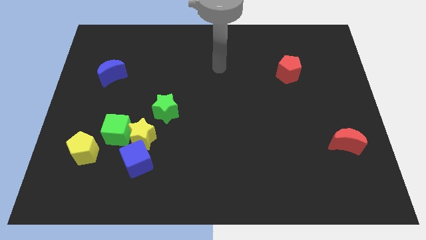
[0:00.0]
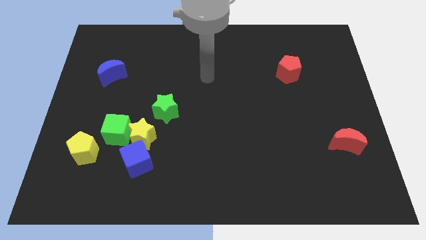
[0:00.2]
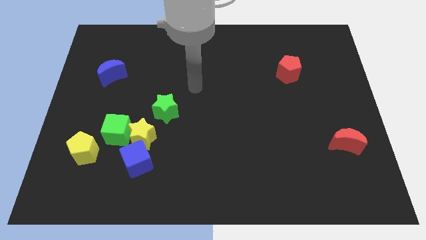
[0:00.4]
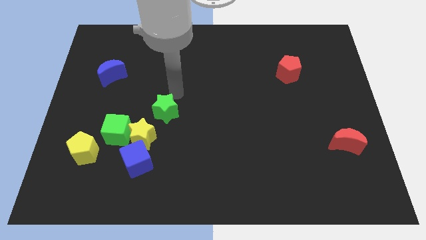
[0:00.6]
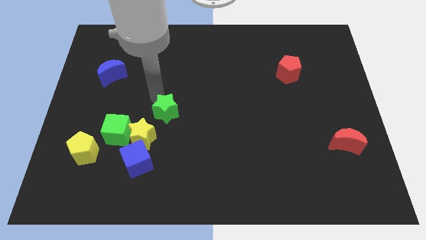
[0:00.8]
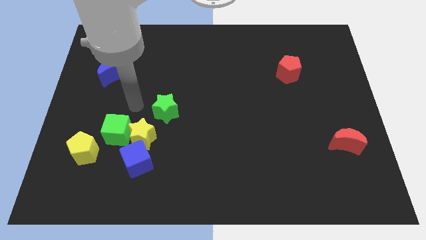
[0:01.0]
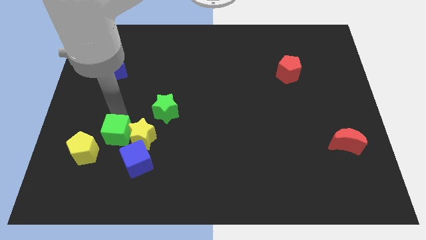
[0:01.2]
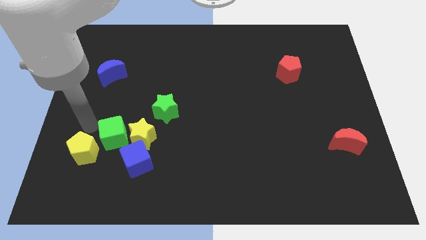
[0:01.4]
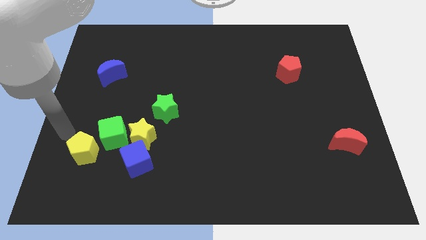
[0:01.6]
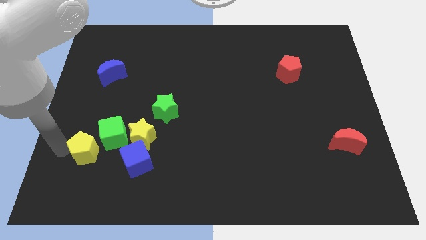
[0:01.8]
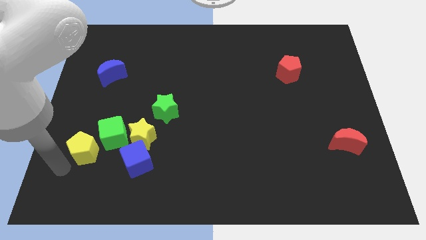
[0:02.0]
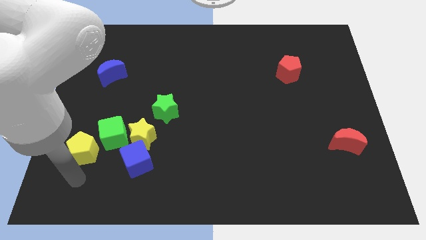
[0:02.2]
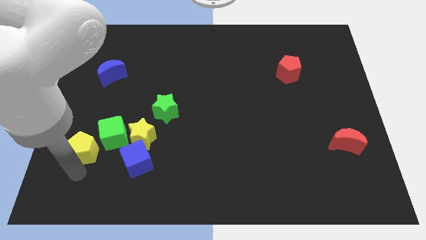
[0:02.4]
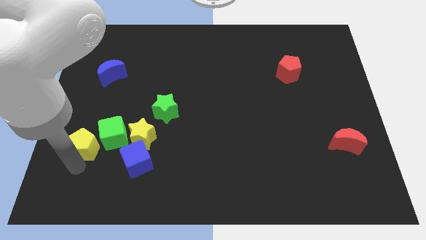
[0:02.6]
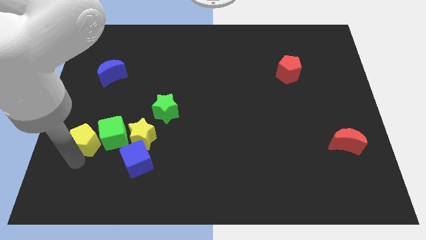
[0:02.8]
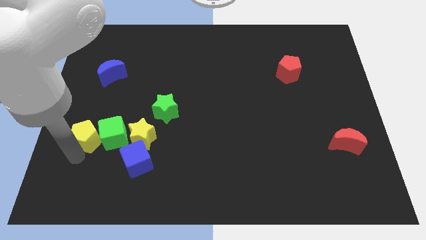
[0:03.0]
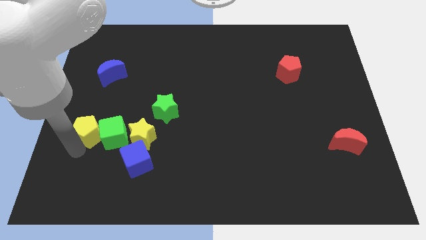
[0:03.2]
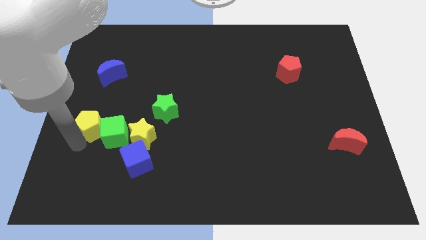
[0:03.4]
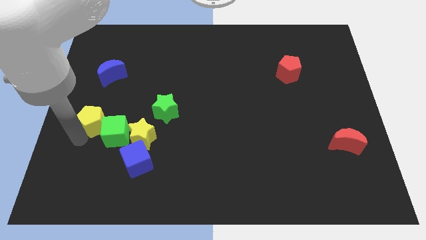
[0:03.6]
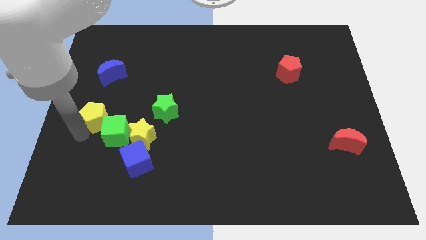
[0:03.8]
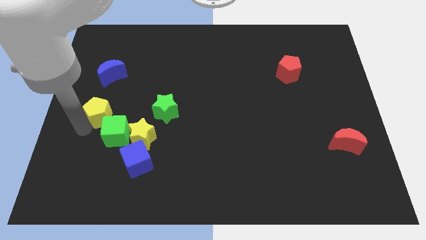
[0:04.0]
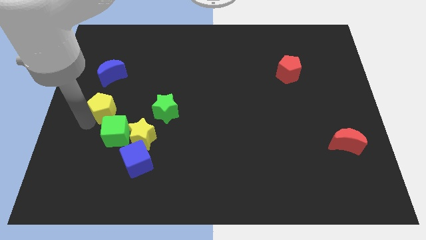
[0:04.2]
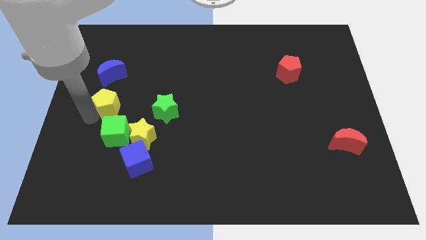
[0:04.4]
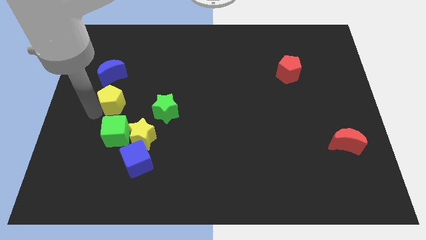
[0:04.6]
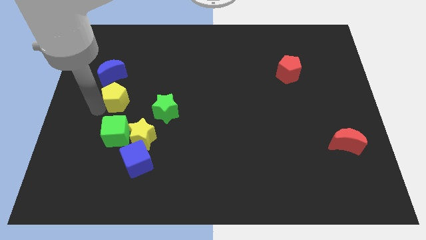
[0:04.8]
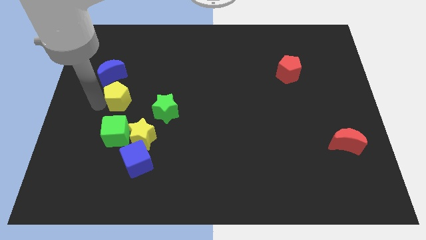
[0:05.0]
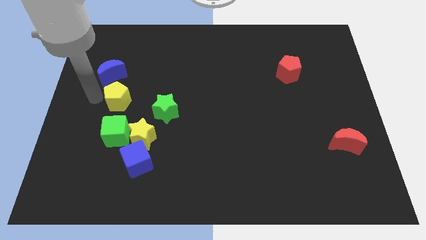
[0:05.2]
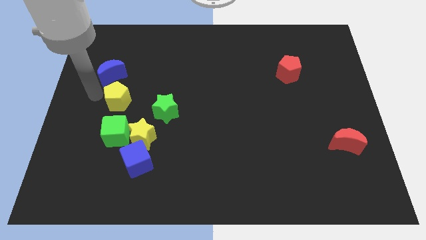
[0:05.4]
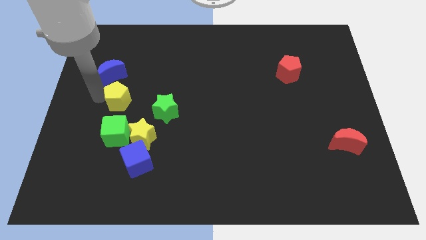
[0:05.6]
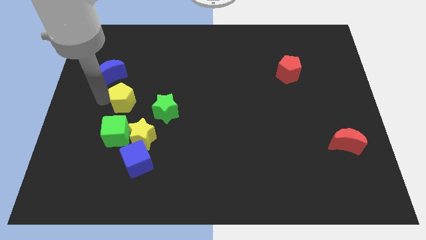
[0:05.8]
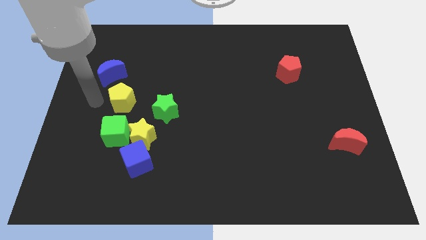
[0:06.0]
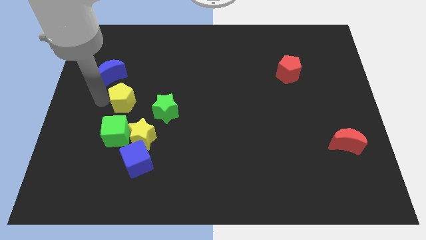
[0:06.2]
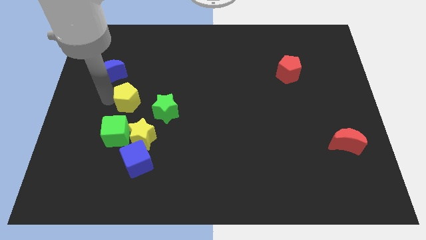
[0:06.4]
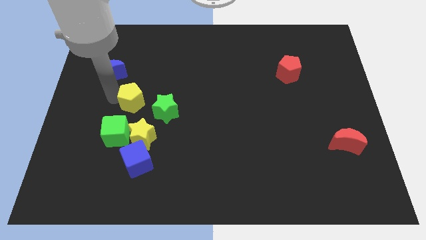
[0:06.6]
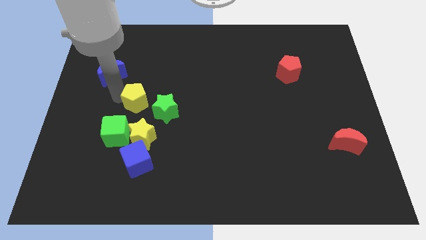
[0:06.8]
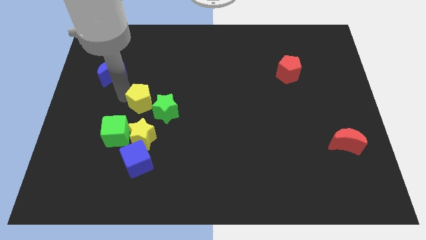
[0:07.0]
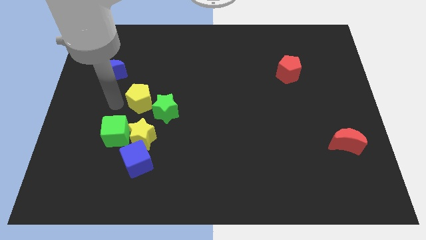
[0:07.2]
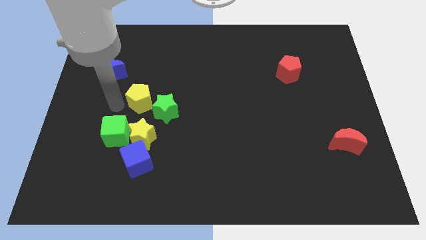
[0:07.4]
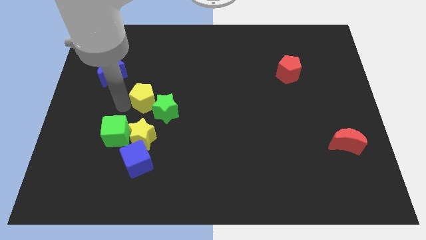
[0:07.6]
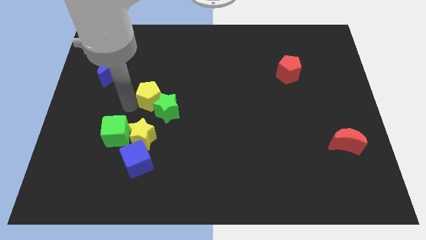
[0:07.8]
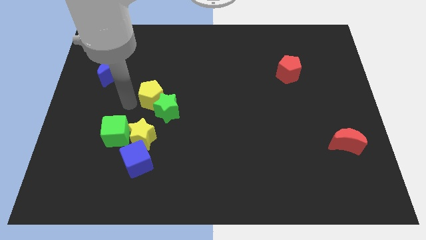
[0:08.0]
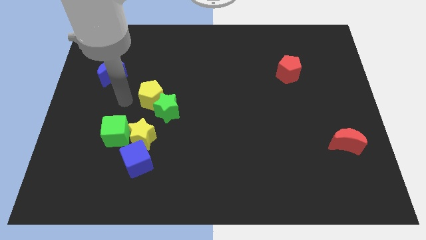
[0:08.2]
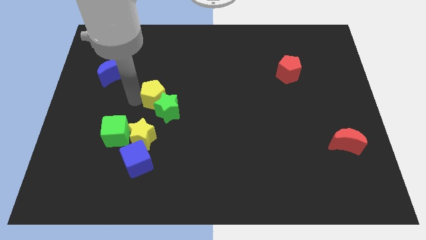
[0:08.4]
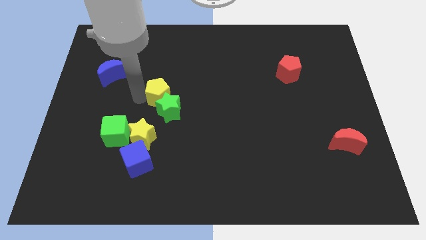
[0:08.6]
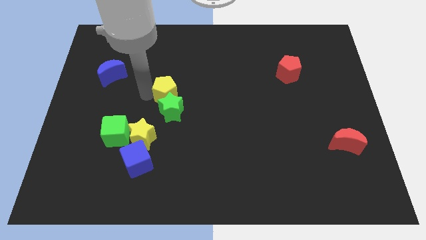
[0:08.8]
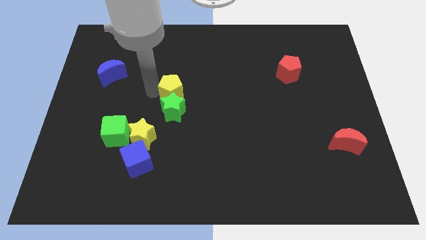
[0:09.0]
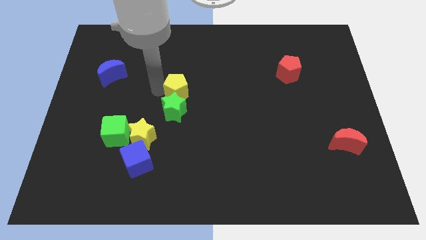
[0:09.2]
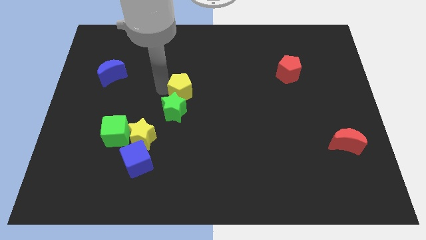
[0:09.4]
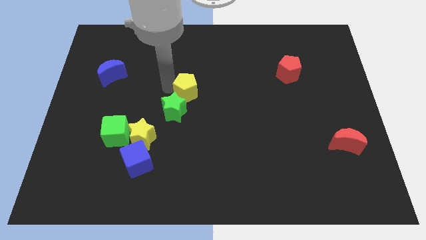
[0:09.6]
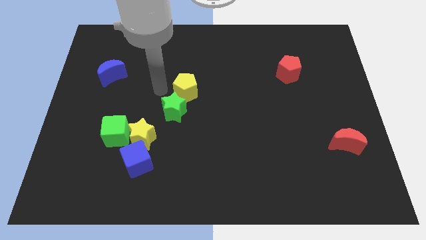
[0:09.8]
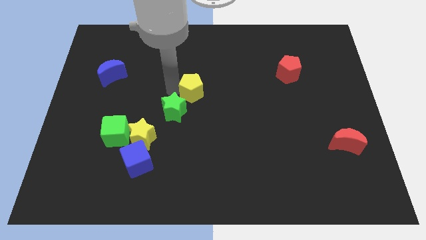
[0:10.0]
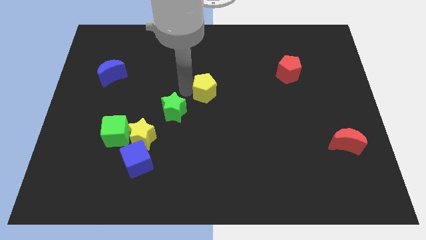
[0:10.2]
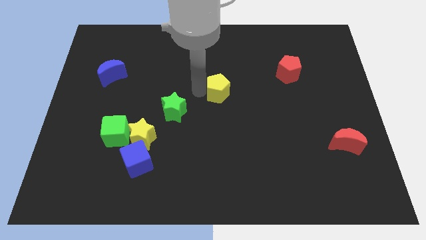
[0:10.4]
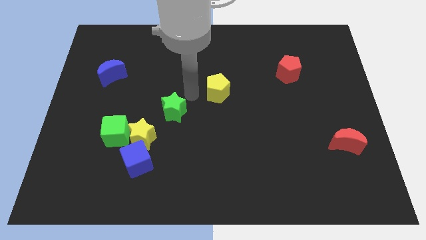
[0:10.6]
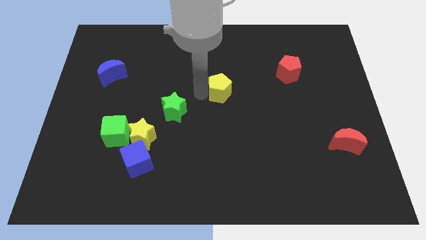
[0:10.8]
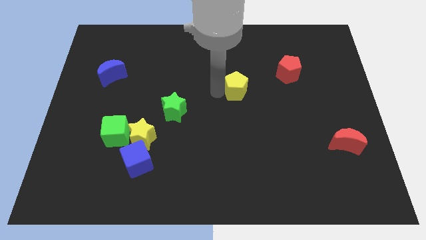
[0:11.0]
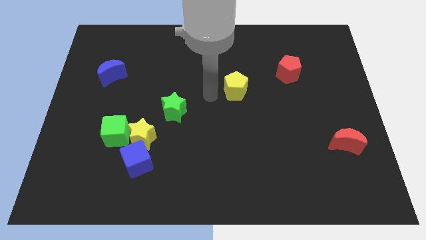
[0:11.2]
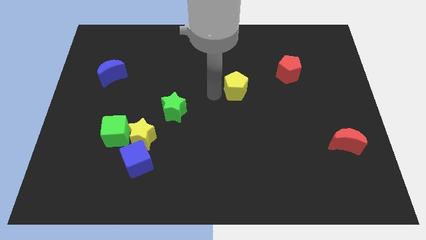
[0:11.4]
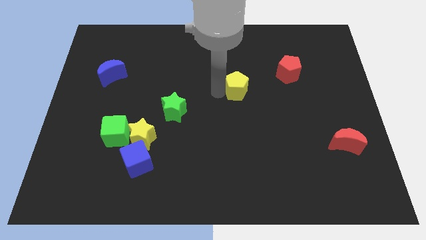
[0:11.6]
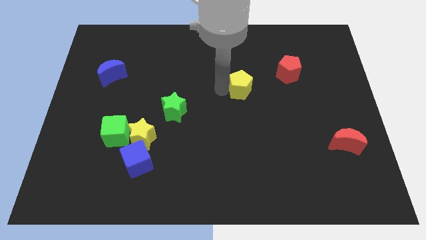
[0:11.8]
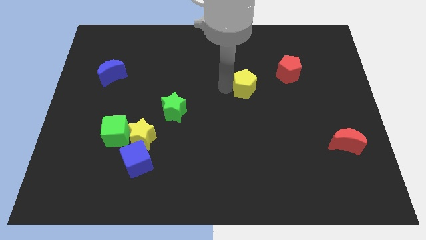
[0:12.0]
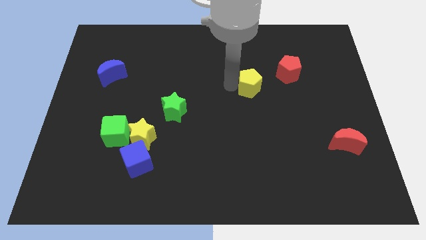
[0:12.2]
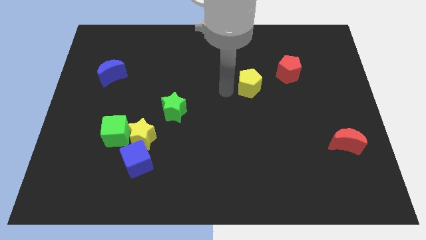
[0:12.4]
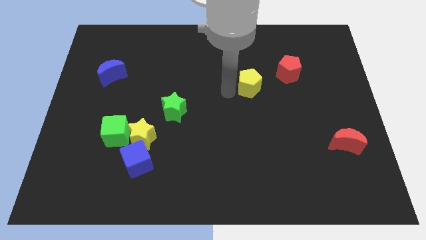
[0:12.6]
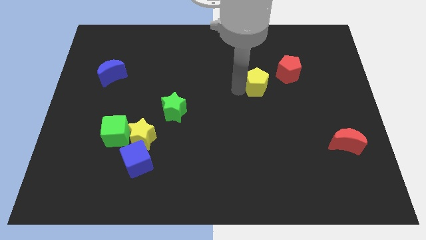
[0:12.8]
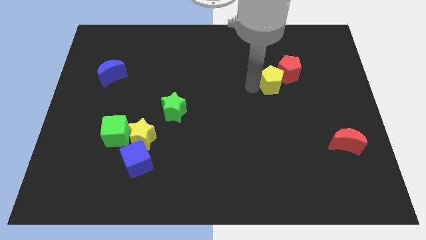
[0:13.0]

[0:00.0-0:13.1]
move the yellow pentagon next to the red pentagon

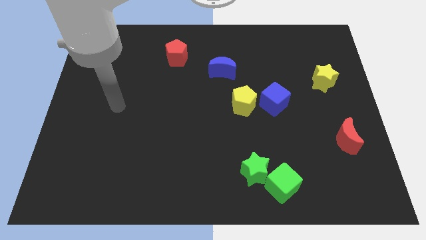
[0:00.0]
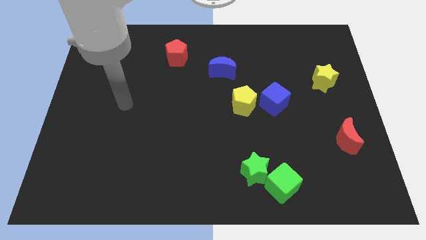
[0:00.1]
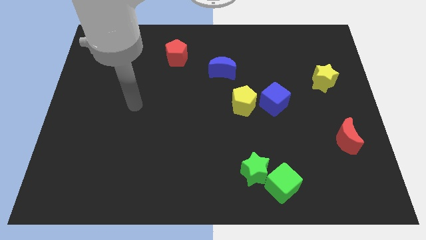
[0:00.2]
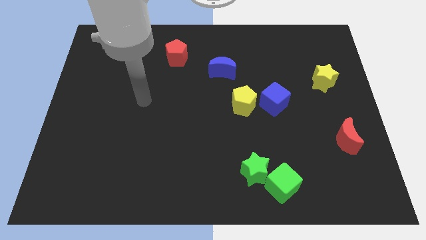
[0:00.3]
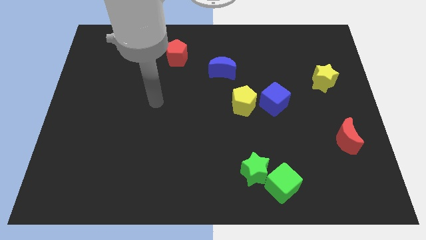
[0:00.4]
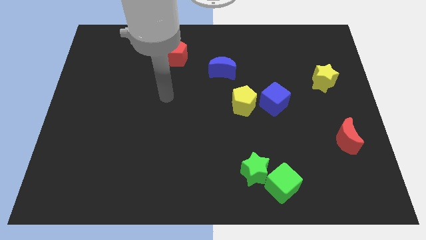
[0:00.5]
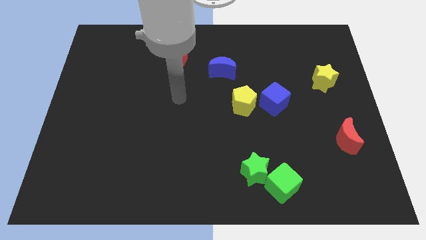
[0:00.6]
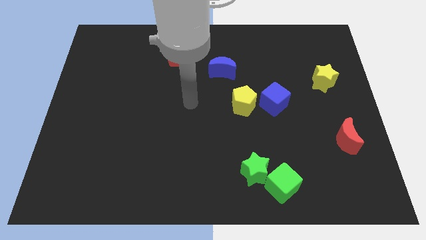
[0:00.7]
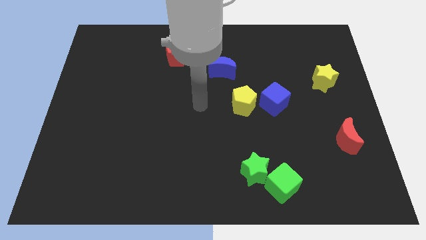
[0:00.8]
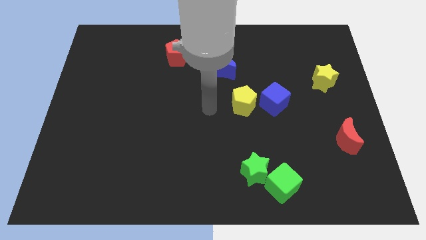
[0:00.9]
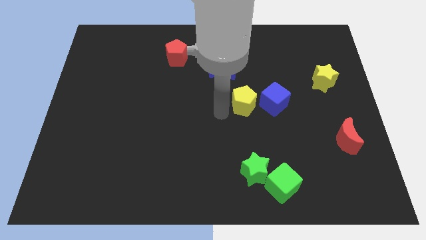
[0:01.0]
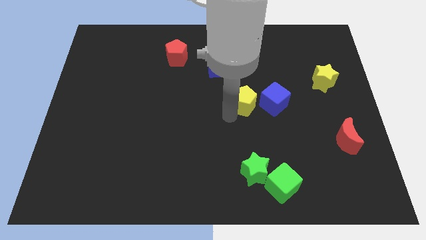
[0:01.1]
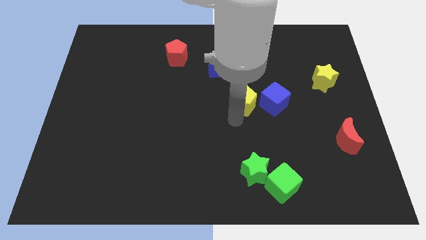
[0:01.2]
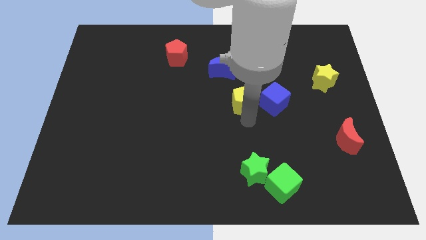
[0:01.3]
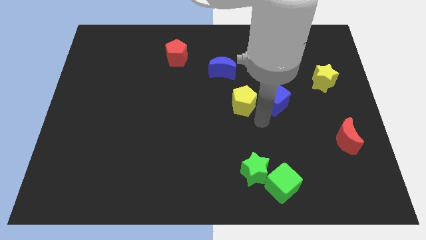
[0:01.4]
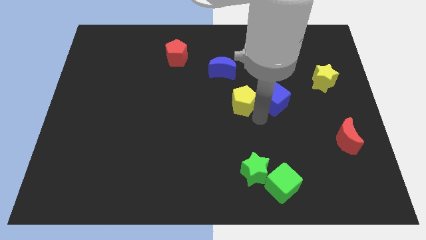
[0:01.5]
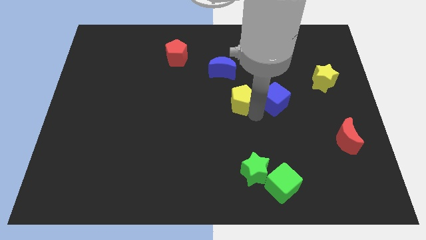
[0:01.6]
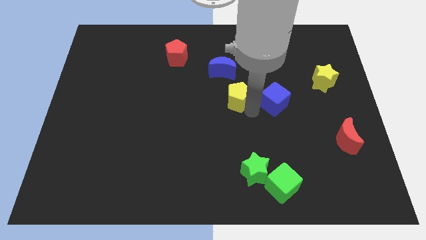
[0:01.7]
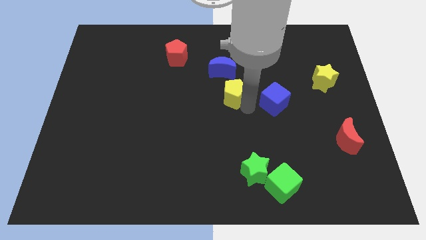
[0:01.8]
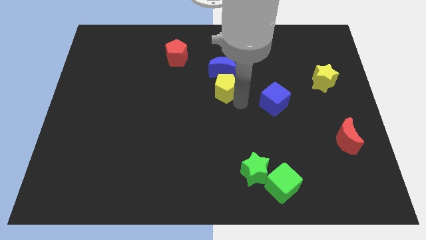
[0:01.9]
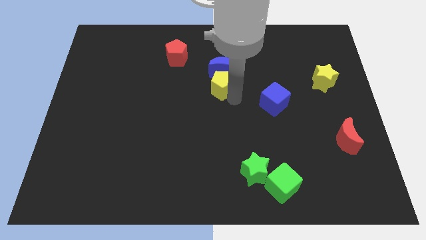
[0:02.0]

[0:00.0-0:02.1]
put the yellow pentagon close to the blue moon
